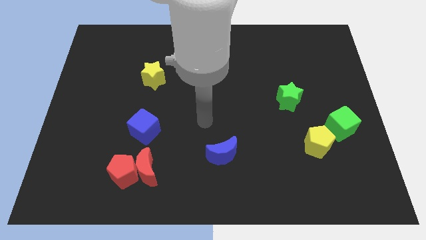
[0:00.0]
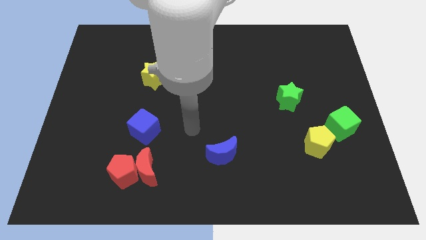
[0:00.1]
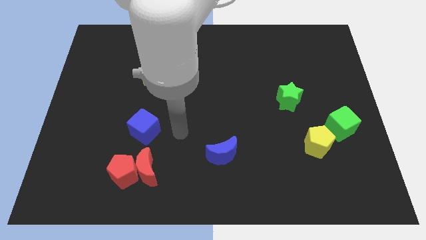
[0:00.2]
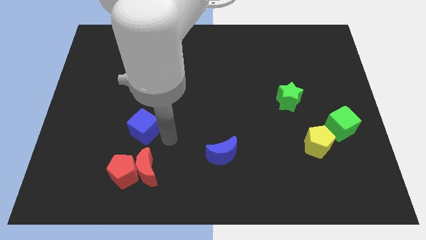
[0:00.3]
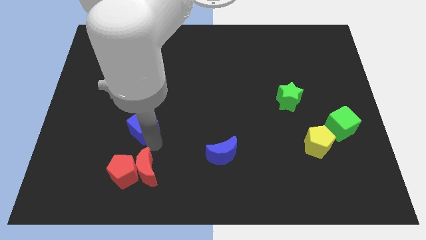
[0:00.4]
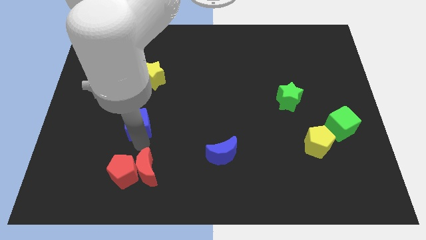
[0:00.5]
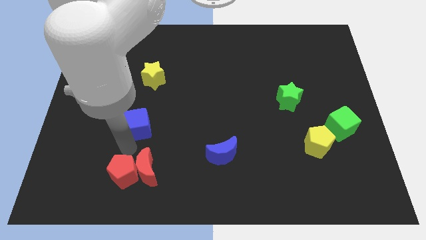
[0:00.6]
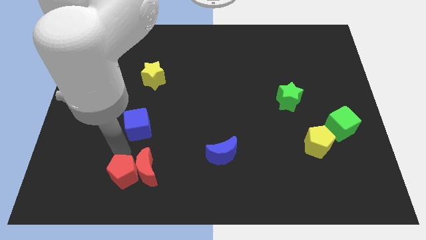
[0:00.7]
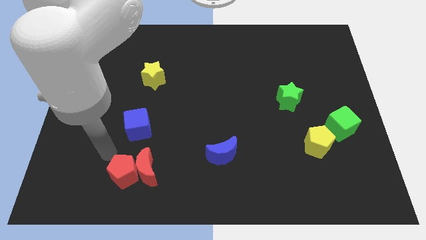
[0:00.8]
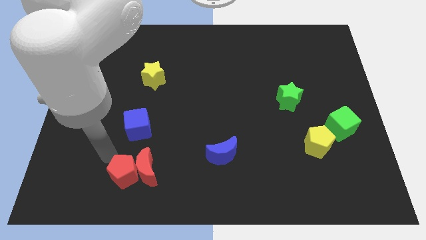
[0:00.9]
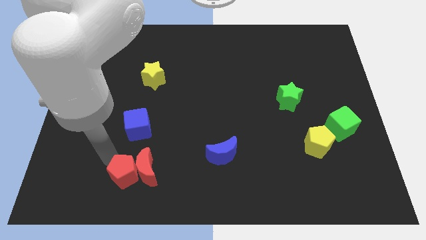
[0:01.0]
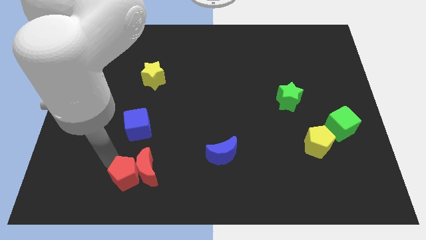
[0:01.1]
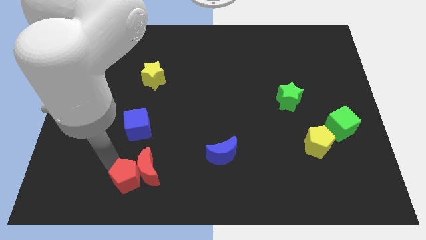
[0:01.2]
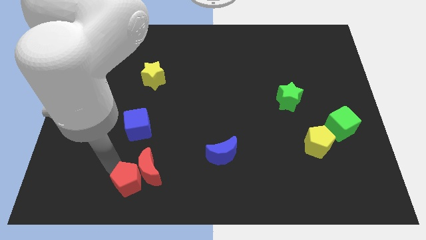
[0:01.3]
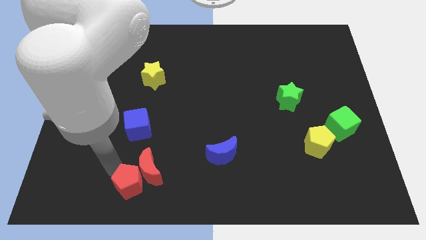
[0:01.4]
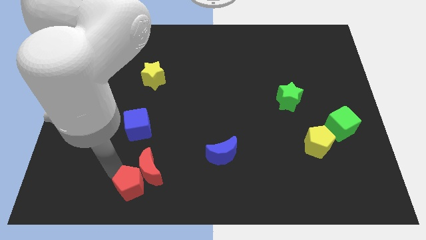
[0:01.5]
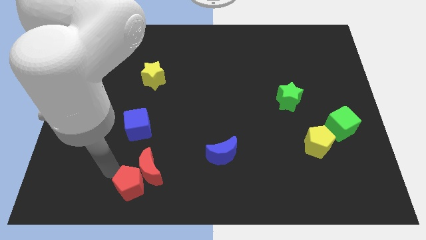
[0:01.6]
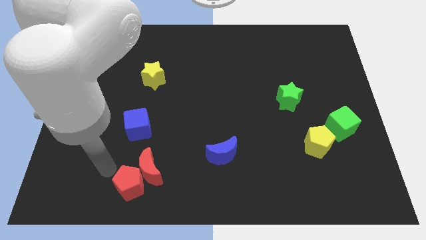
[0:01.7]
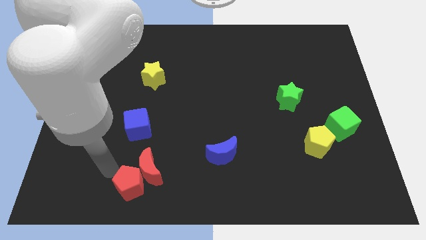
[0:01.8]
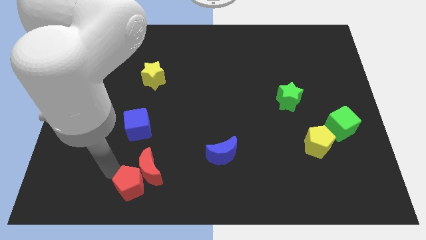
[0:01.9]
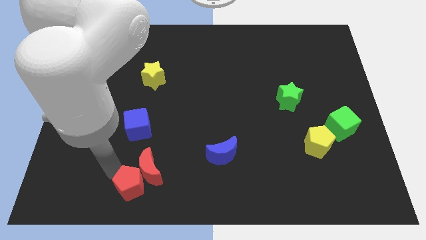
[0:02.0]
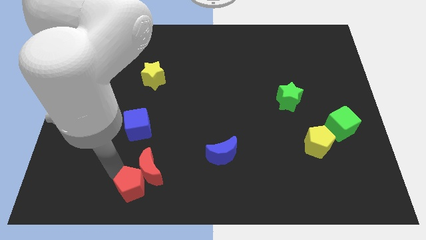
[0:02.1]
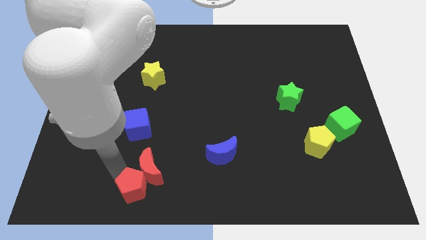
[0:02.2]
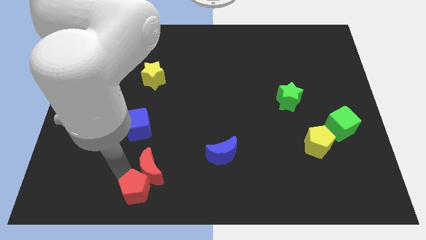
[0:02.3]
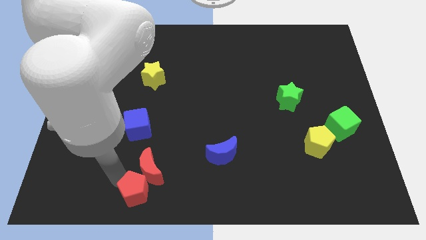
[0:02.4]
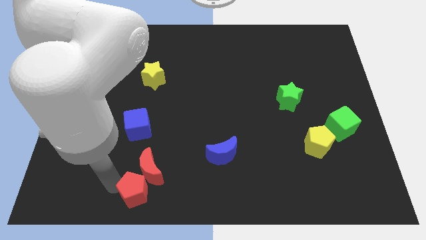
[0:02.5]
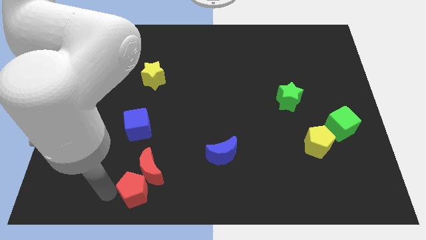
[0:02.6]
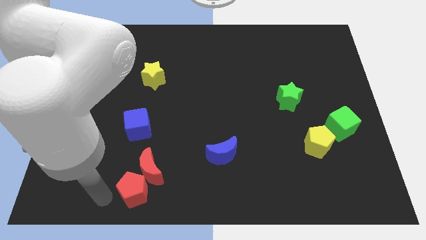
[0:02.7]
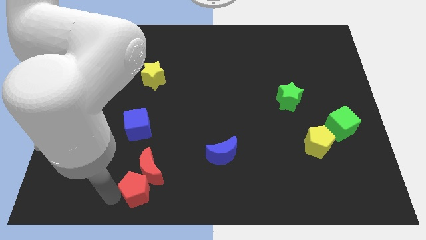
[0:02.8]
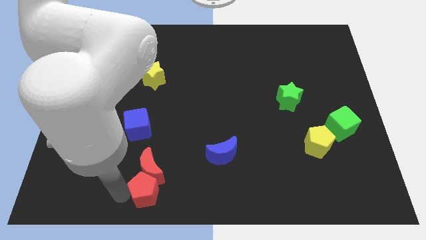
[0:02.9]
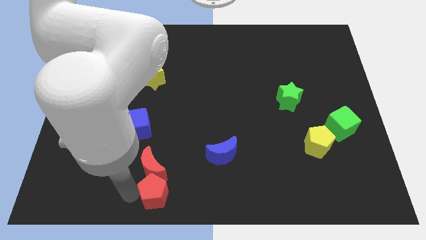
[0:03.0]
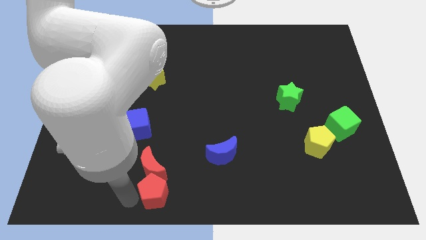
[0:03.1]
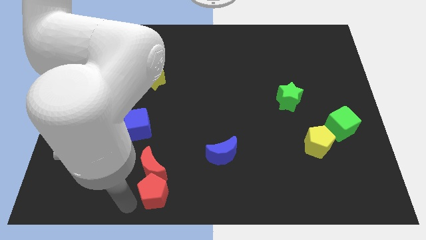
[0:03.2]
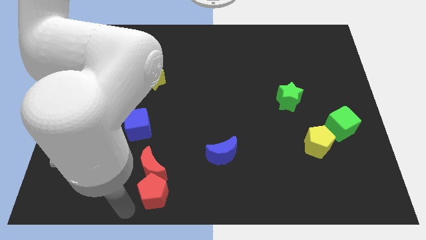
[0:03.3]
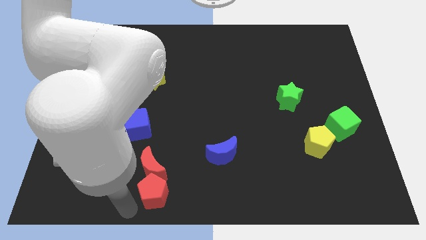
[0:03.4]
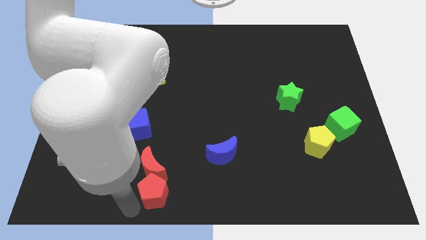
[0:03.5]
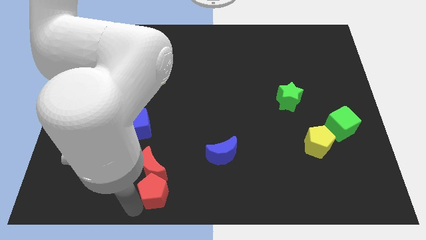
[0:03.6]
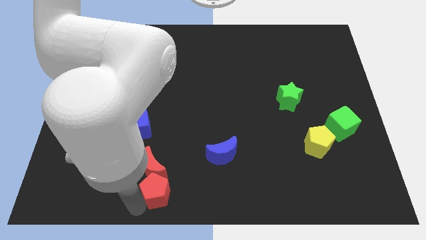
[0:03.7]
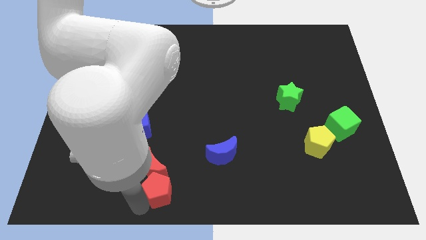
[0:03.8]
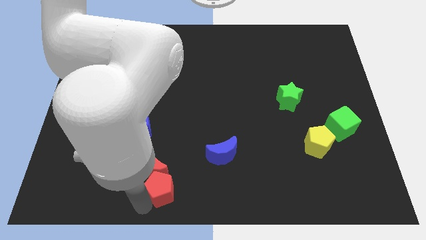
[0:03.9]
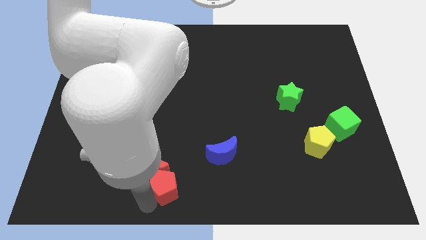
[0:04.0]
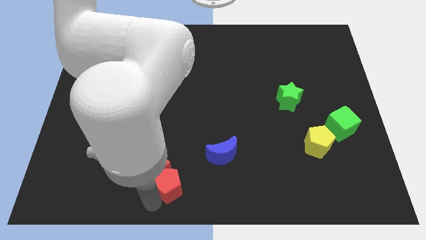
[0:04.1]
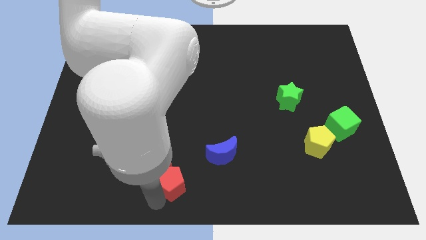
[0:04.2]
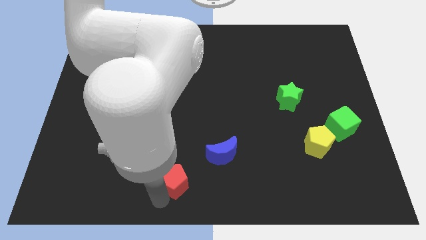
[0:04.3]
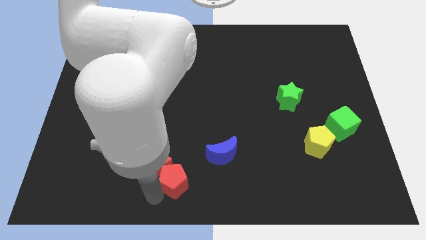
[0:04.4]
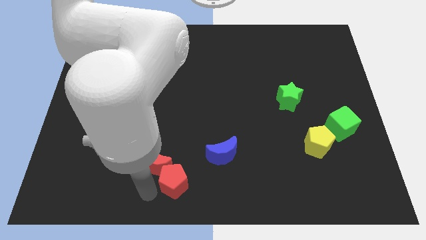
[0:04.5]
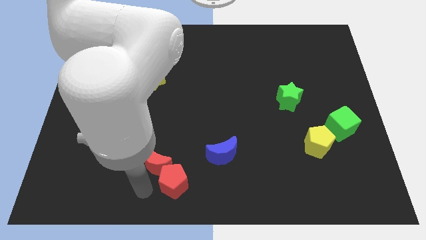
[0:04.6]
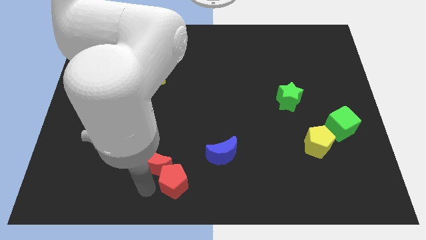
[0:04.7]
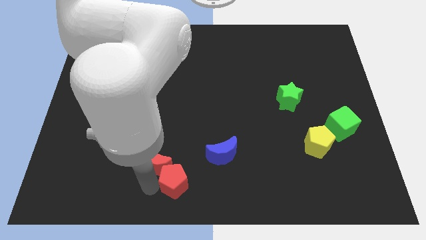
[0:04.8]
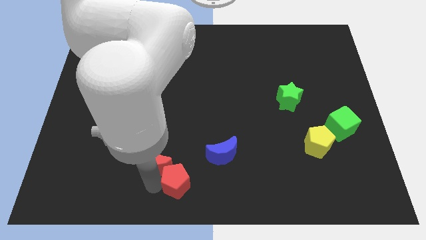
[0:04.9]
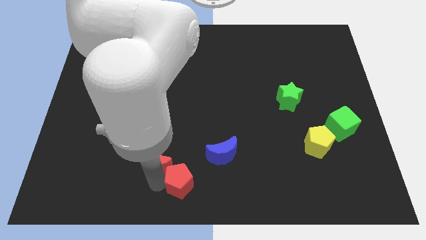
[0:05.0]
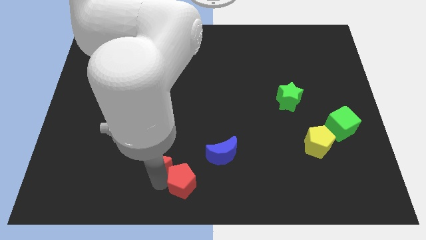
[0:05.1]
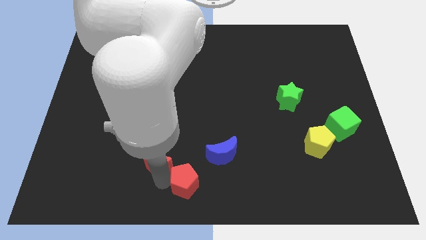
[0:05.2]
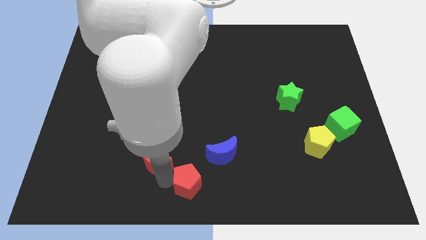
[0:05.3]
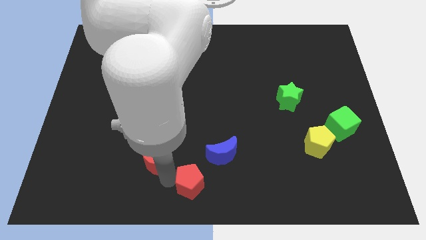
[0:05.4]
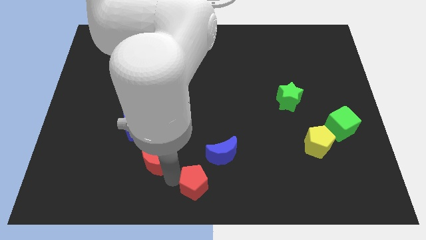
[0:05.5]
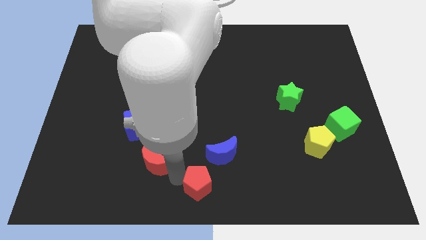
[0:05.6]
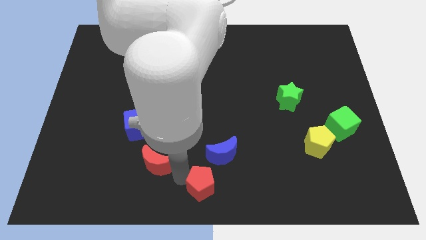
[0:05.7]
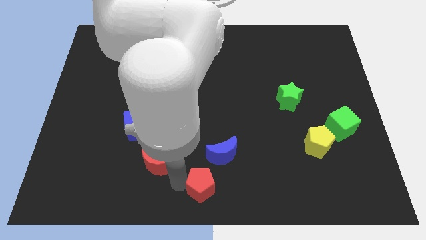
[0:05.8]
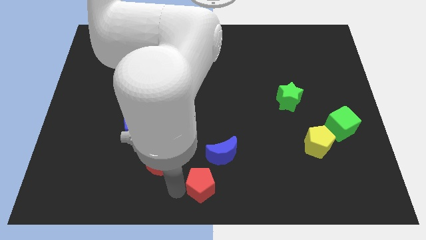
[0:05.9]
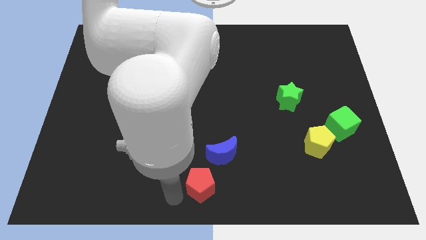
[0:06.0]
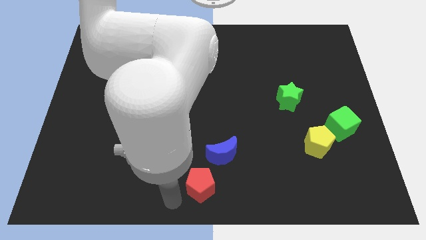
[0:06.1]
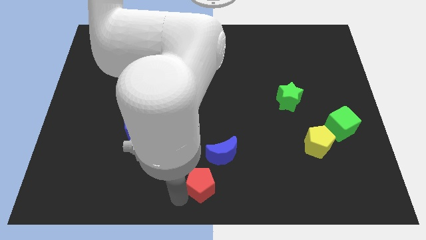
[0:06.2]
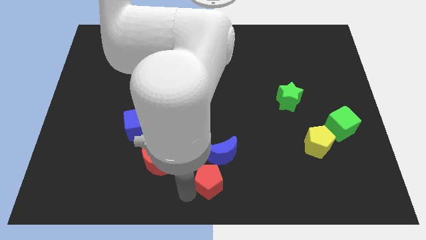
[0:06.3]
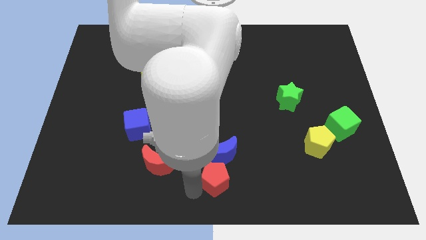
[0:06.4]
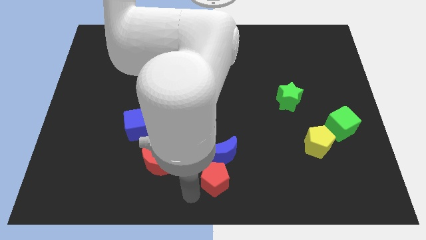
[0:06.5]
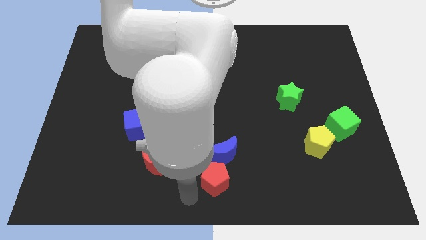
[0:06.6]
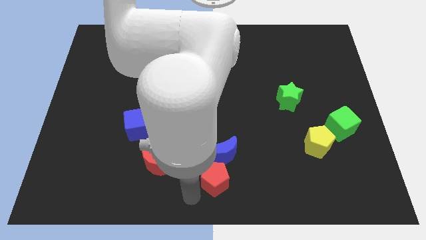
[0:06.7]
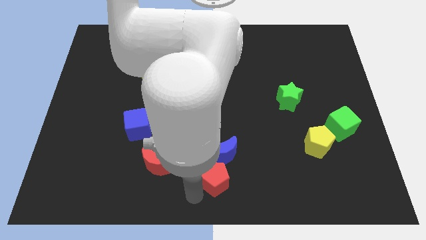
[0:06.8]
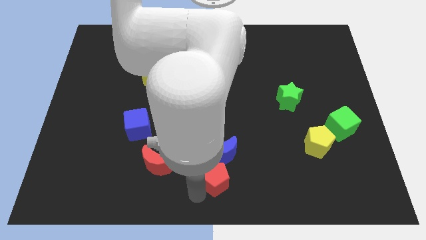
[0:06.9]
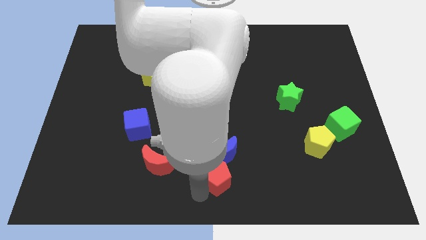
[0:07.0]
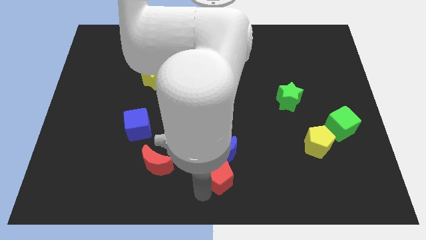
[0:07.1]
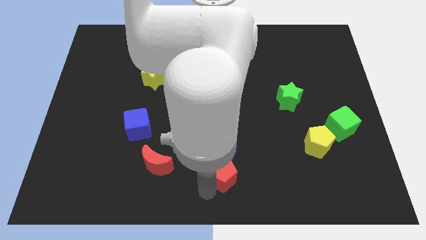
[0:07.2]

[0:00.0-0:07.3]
move the red pentagon right

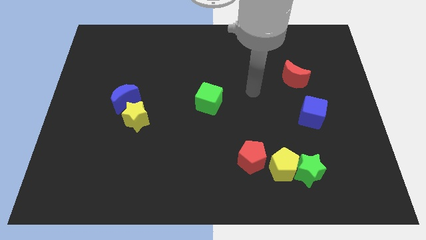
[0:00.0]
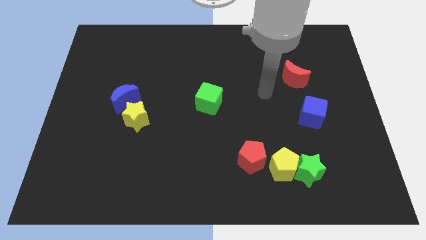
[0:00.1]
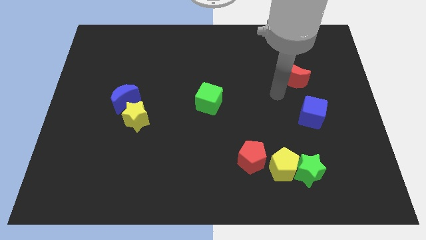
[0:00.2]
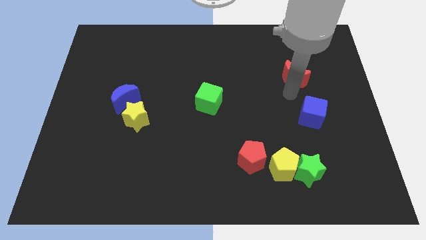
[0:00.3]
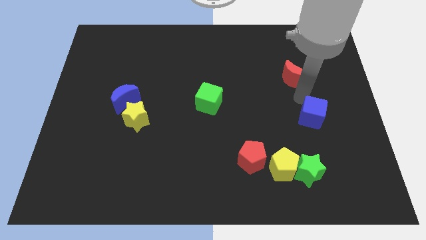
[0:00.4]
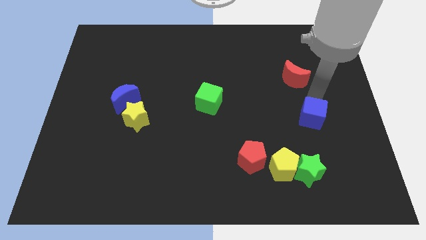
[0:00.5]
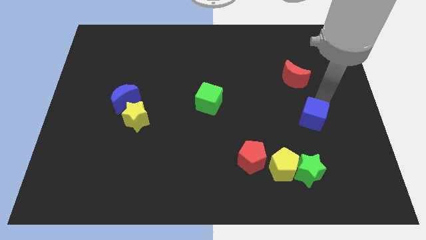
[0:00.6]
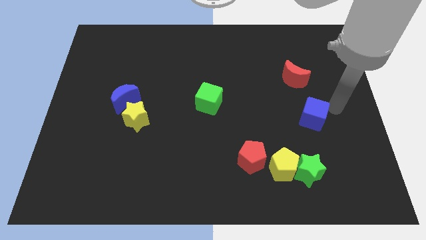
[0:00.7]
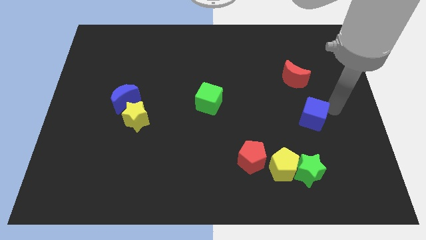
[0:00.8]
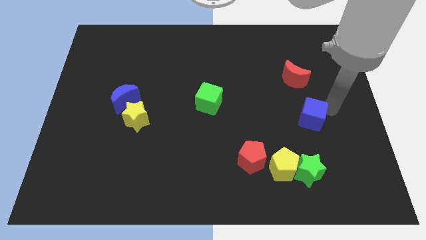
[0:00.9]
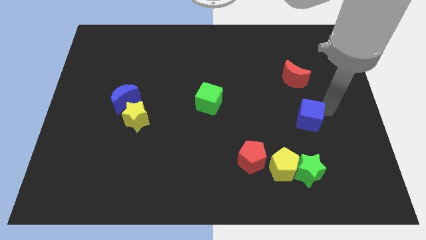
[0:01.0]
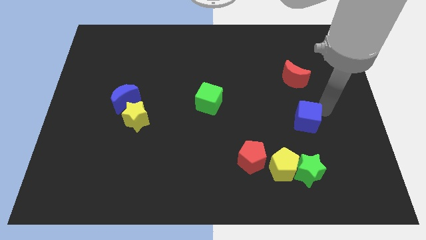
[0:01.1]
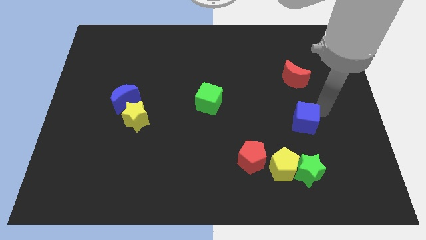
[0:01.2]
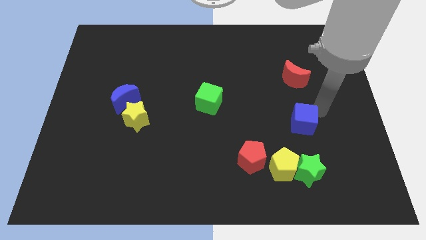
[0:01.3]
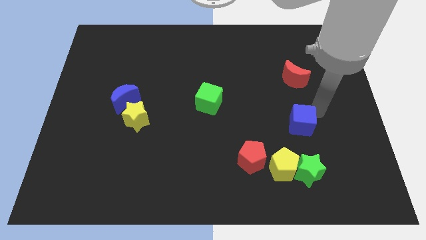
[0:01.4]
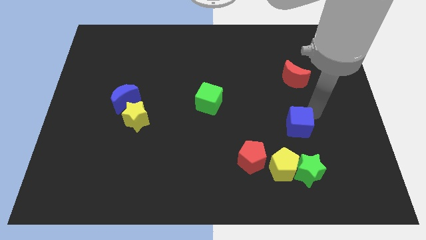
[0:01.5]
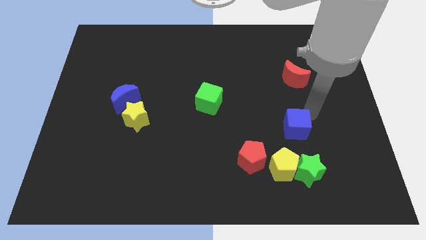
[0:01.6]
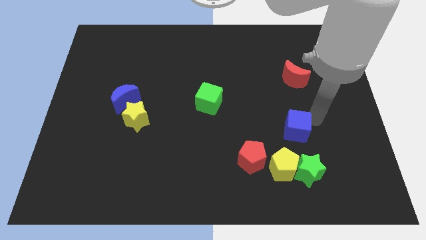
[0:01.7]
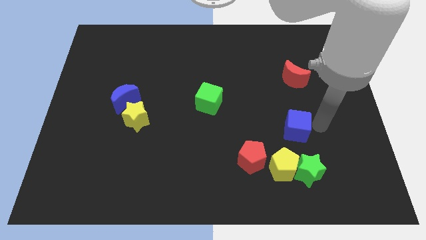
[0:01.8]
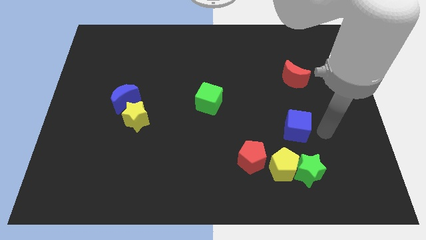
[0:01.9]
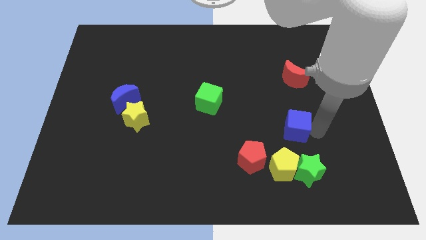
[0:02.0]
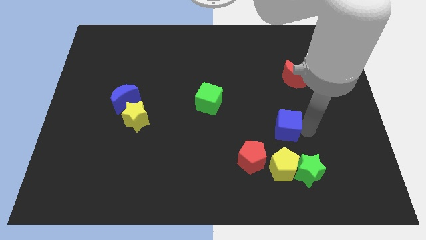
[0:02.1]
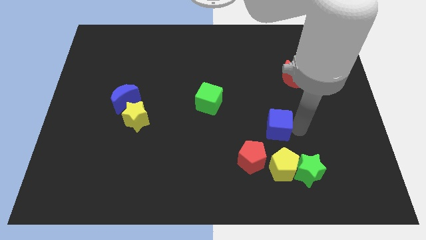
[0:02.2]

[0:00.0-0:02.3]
slide the blue cube a little left
